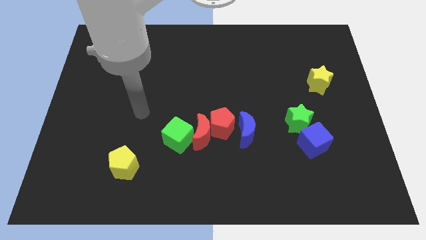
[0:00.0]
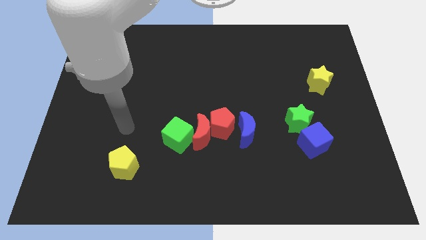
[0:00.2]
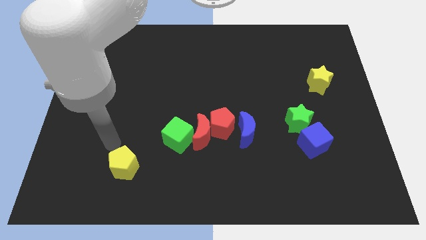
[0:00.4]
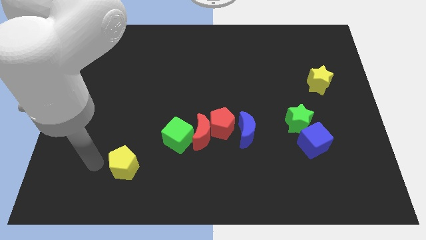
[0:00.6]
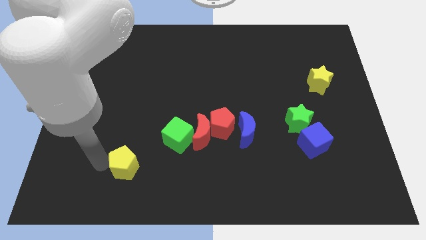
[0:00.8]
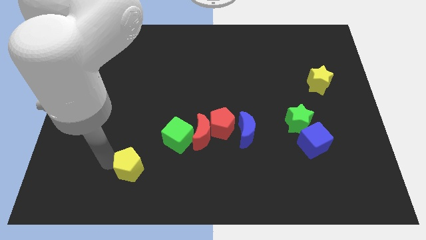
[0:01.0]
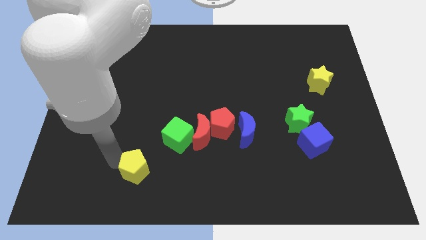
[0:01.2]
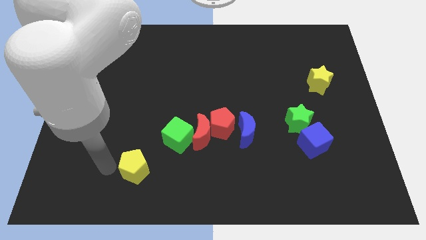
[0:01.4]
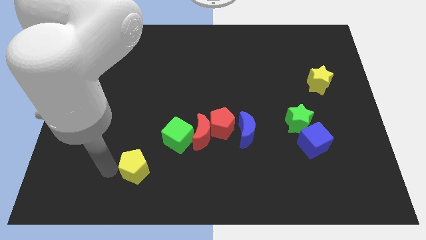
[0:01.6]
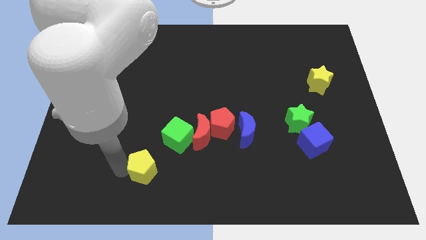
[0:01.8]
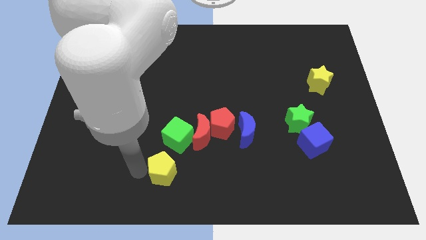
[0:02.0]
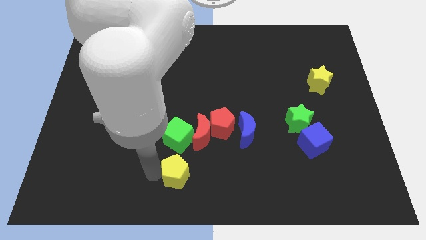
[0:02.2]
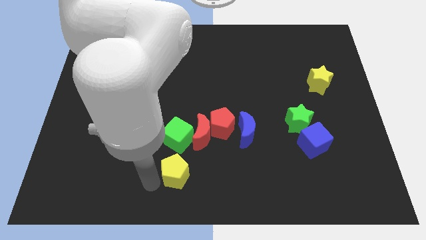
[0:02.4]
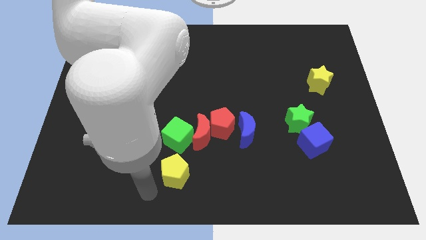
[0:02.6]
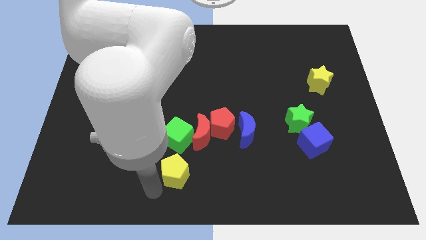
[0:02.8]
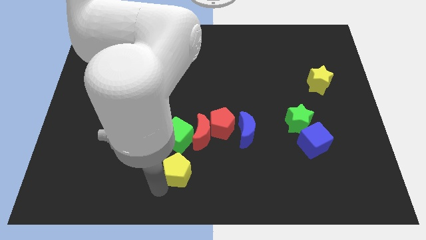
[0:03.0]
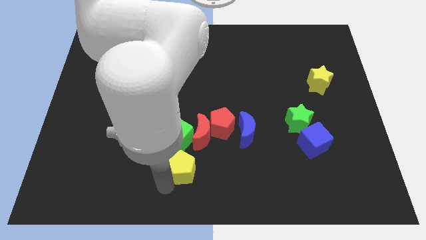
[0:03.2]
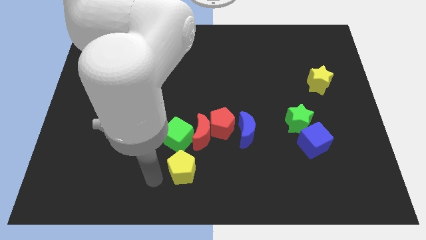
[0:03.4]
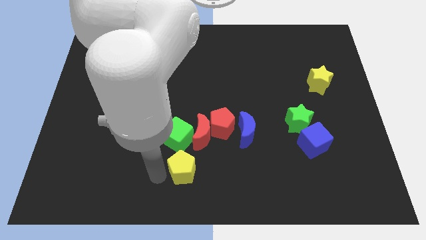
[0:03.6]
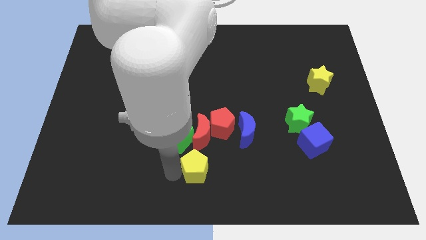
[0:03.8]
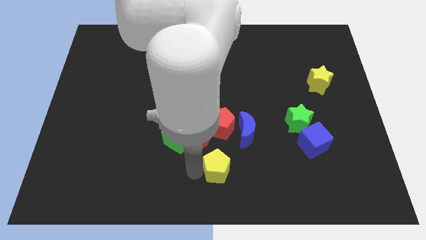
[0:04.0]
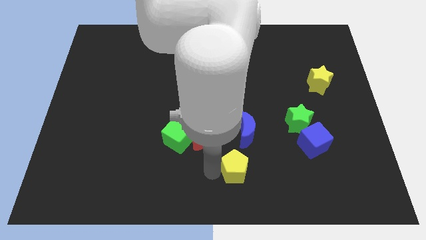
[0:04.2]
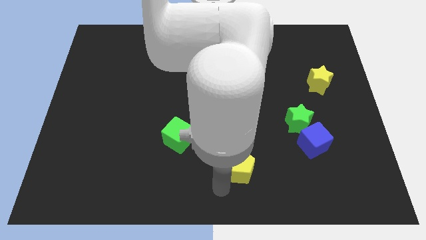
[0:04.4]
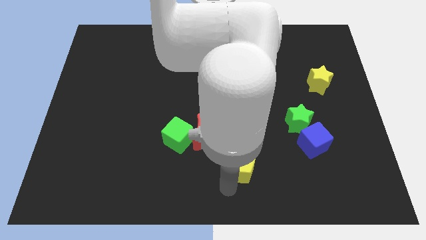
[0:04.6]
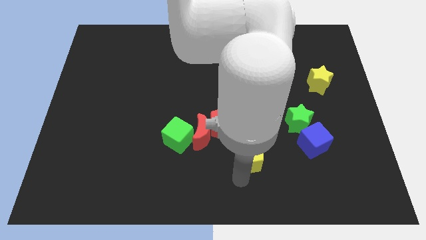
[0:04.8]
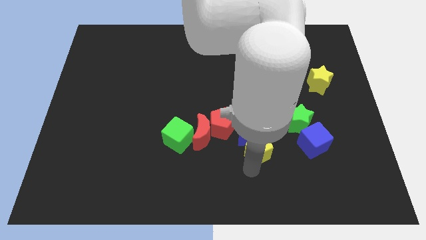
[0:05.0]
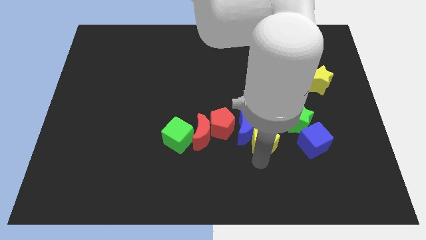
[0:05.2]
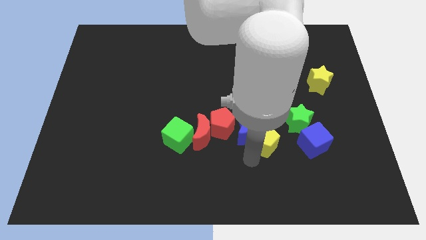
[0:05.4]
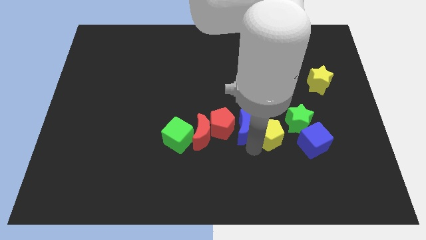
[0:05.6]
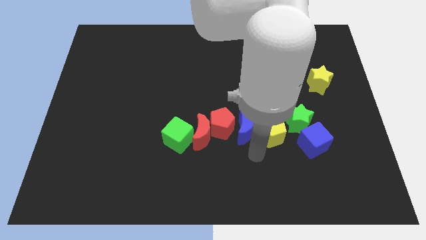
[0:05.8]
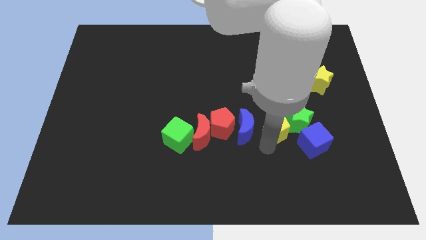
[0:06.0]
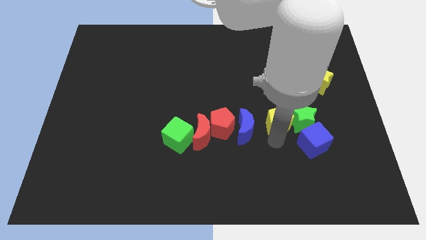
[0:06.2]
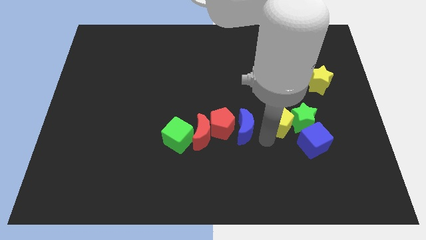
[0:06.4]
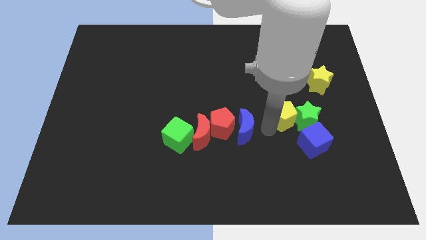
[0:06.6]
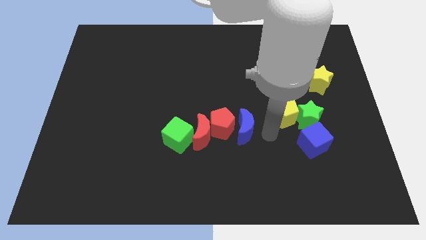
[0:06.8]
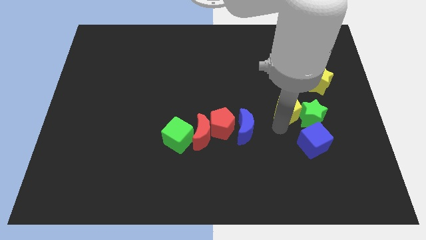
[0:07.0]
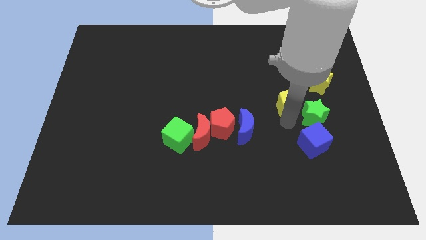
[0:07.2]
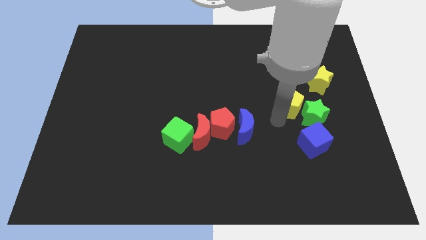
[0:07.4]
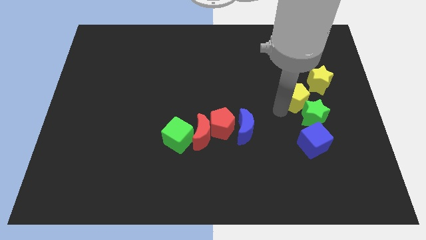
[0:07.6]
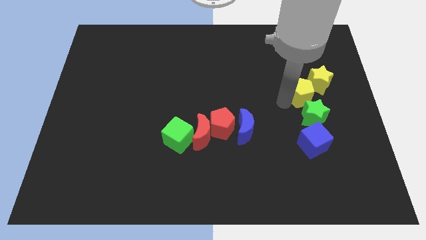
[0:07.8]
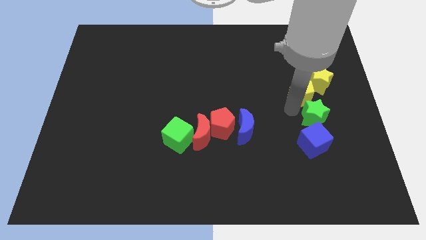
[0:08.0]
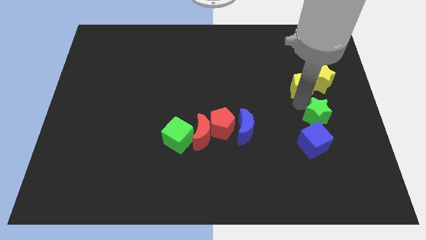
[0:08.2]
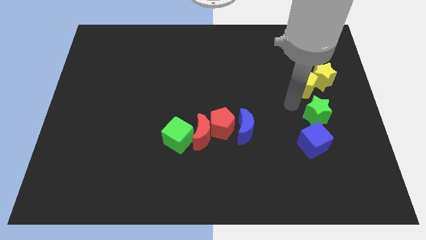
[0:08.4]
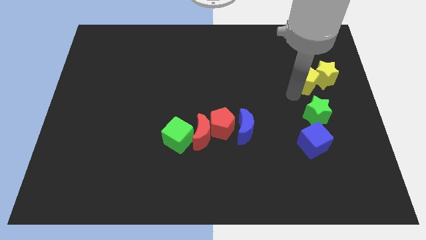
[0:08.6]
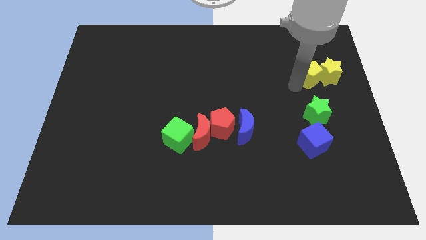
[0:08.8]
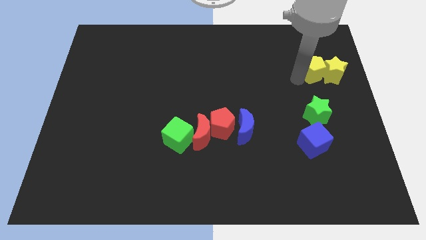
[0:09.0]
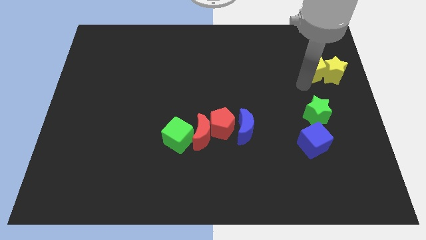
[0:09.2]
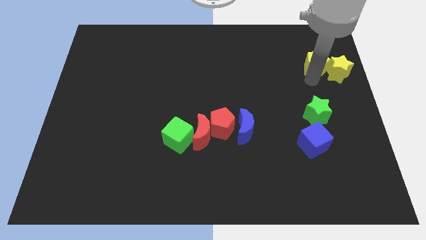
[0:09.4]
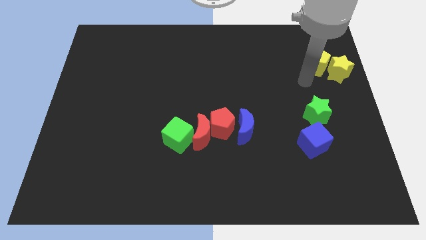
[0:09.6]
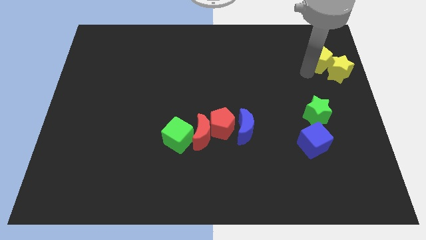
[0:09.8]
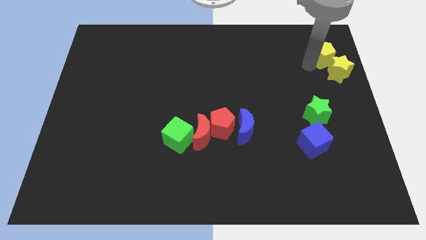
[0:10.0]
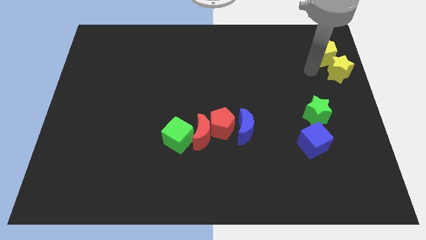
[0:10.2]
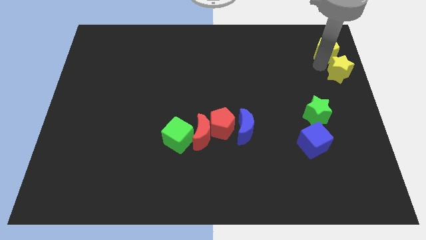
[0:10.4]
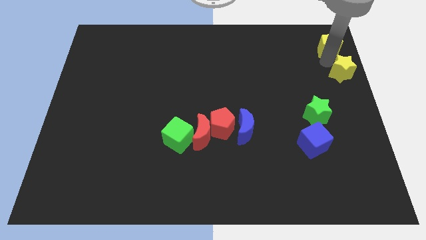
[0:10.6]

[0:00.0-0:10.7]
push the yellow pentagon to the top right of the board

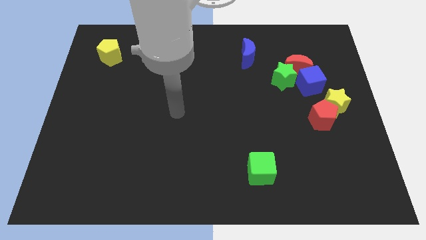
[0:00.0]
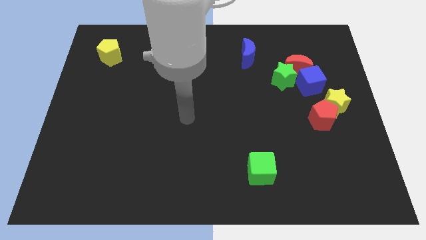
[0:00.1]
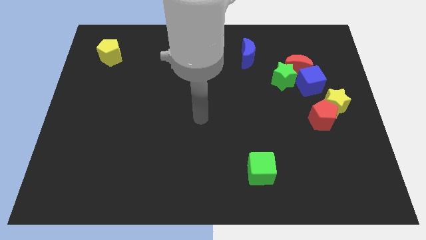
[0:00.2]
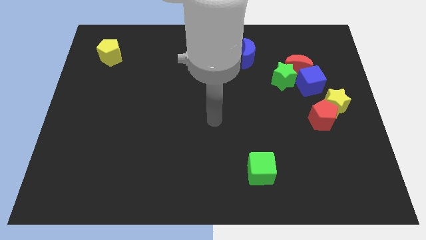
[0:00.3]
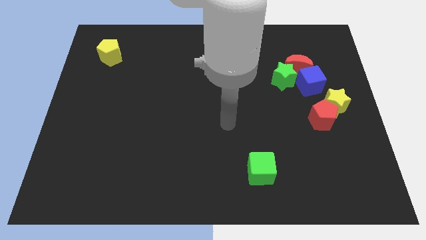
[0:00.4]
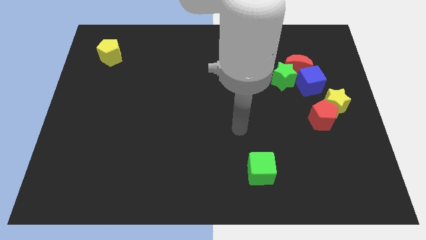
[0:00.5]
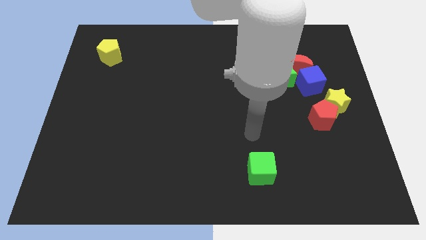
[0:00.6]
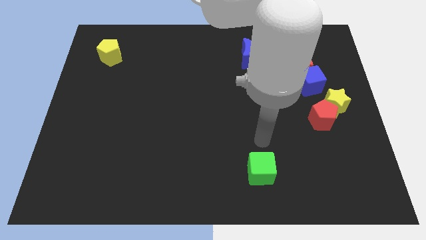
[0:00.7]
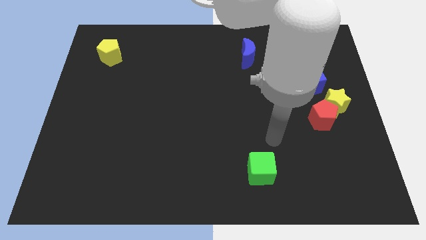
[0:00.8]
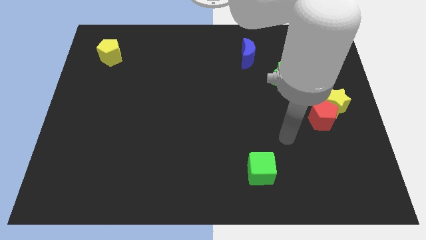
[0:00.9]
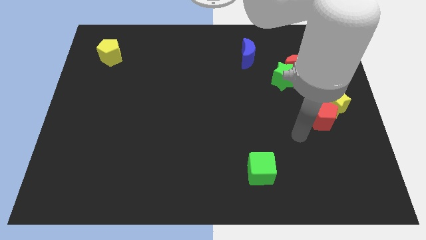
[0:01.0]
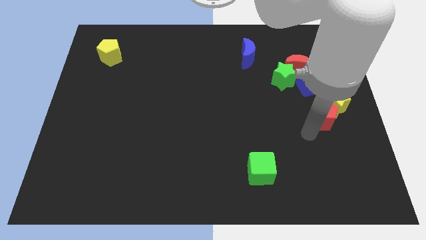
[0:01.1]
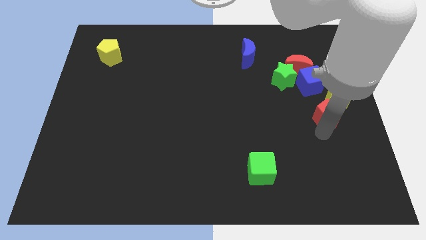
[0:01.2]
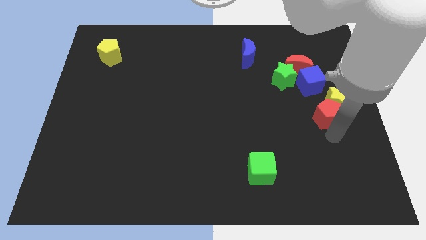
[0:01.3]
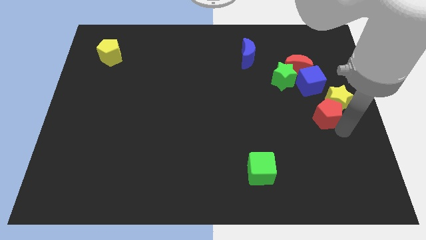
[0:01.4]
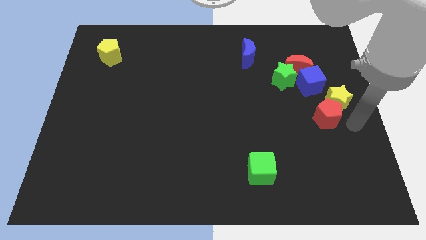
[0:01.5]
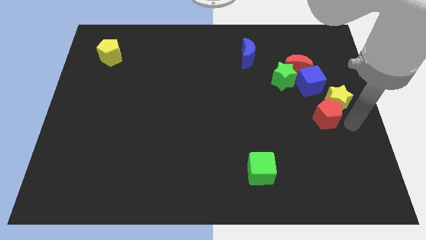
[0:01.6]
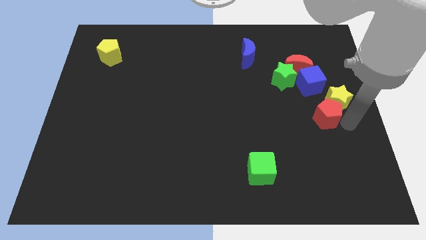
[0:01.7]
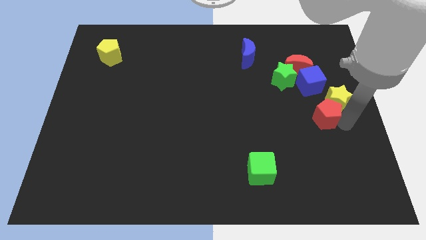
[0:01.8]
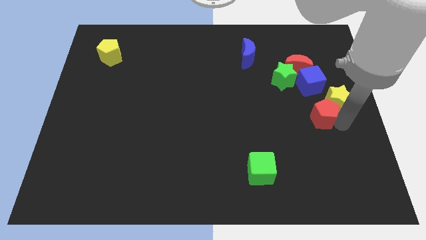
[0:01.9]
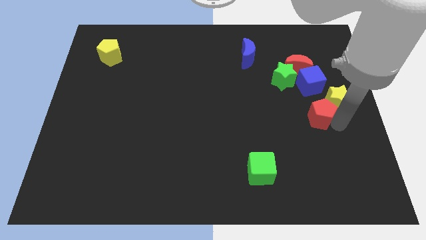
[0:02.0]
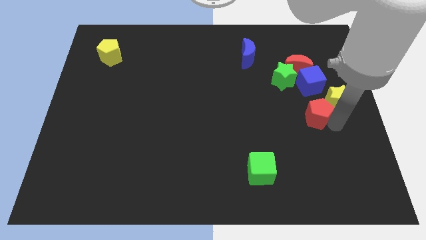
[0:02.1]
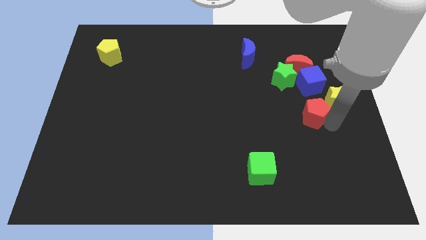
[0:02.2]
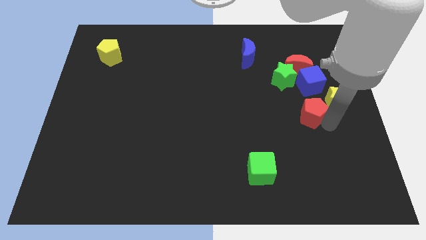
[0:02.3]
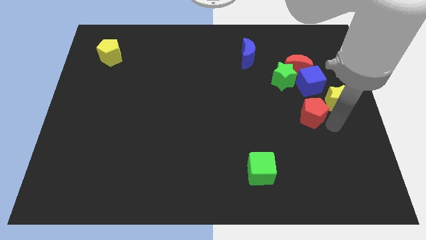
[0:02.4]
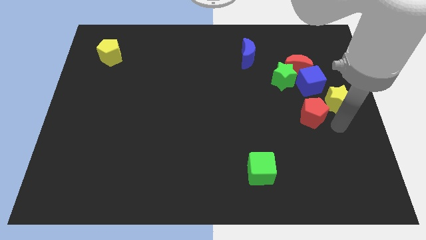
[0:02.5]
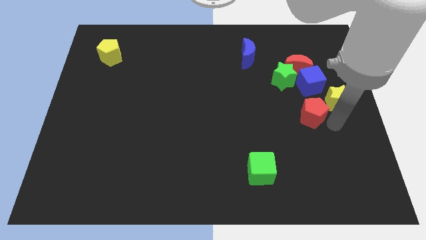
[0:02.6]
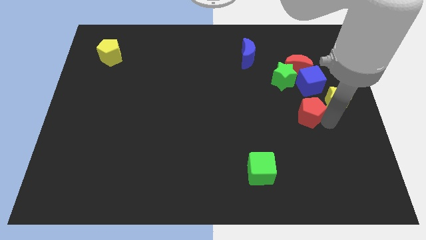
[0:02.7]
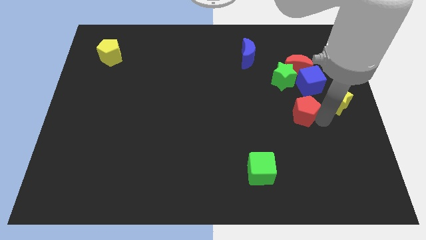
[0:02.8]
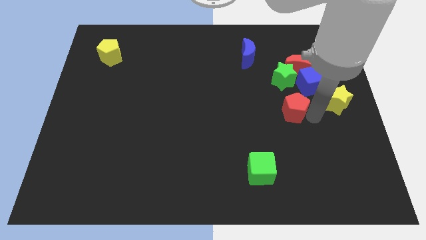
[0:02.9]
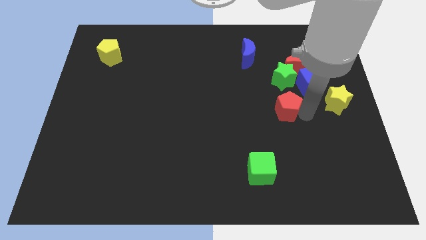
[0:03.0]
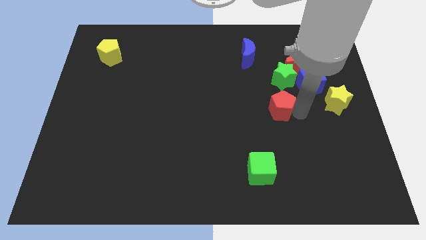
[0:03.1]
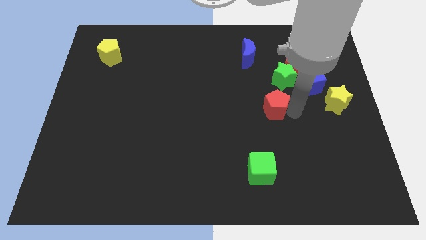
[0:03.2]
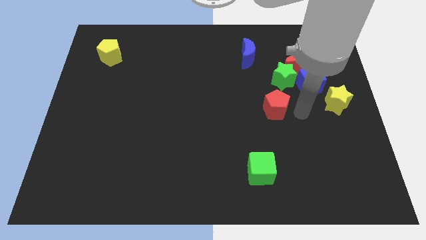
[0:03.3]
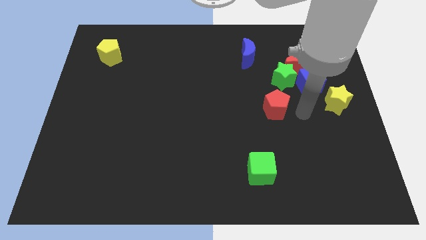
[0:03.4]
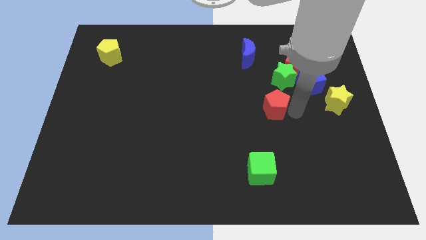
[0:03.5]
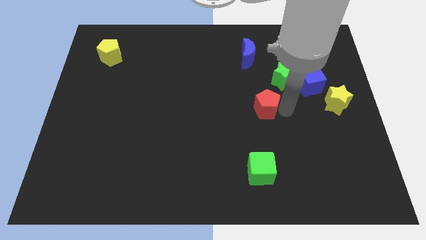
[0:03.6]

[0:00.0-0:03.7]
slide the red pentagon to the middle
